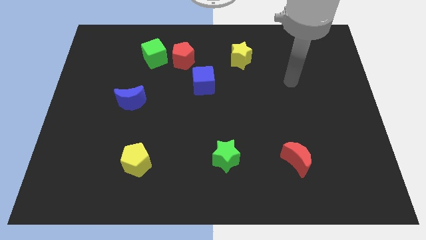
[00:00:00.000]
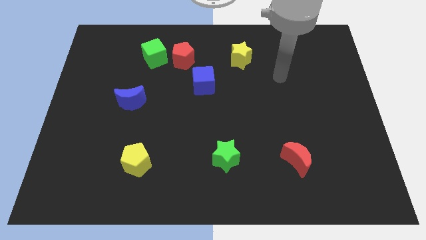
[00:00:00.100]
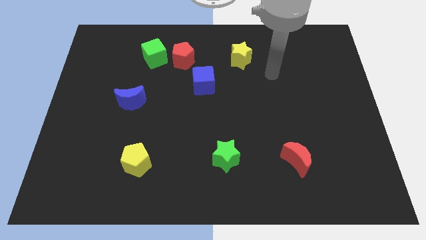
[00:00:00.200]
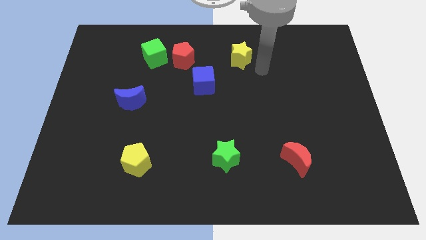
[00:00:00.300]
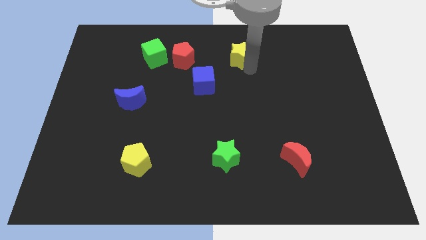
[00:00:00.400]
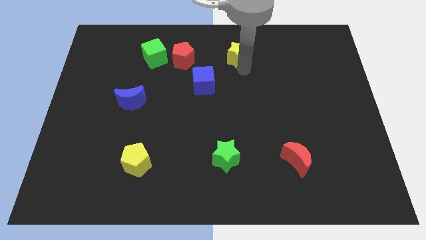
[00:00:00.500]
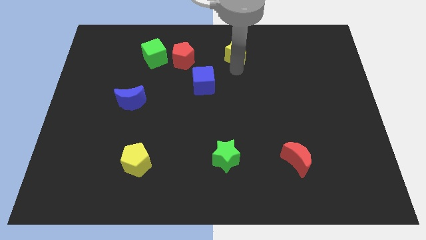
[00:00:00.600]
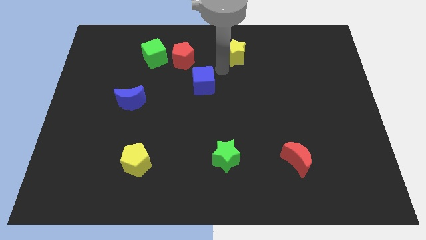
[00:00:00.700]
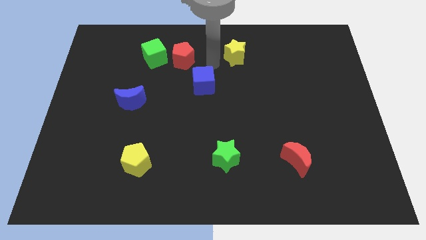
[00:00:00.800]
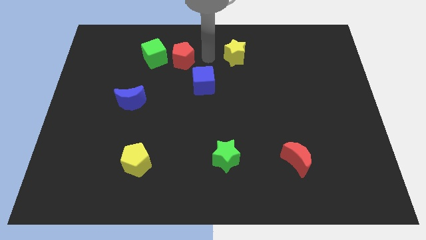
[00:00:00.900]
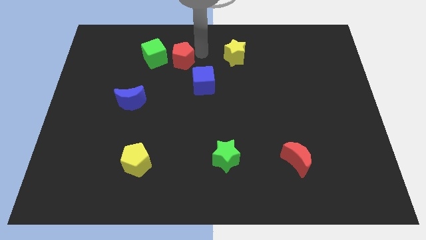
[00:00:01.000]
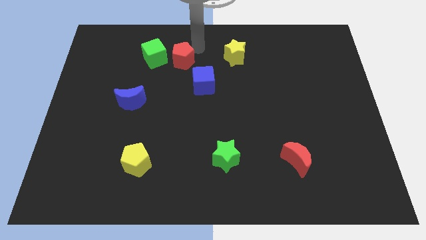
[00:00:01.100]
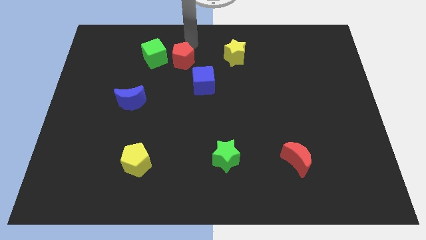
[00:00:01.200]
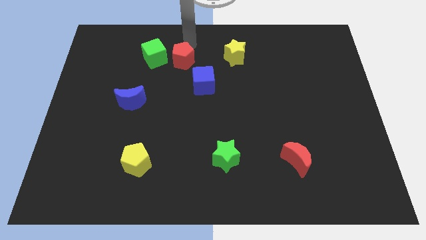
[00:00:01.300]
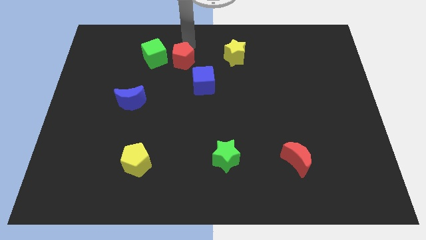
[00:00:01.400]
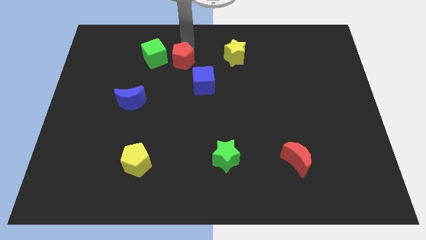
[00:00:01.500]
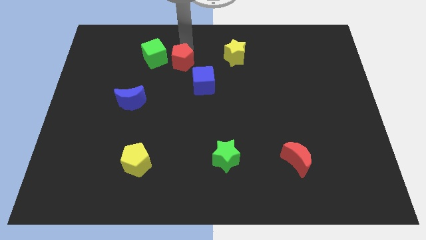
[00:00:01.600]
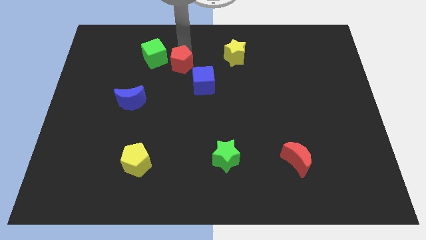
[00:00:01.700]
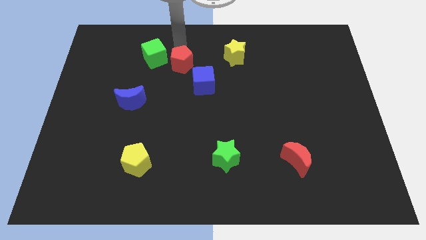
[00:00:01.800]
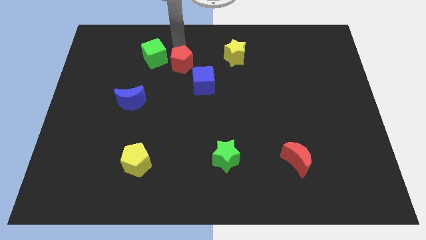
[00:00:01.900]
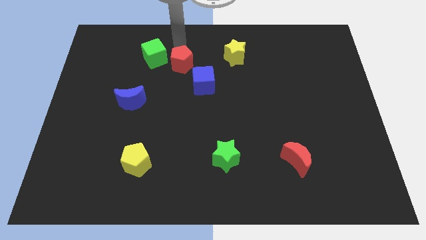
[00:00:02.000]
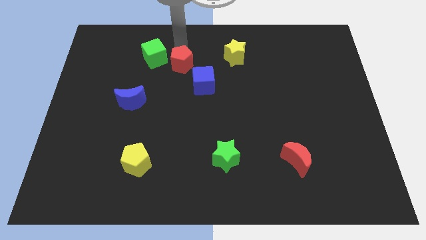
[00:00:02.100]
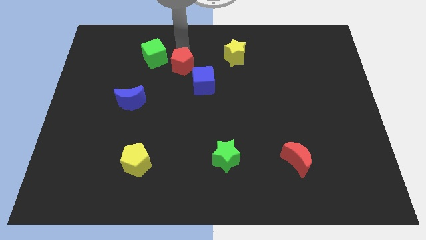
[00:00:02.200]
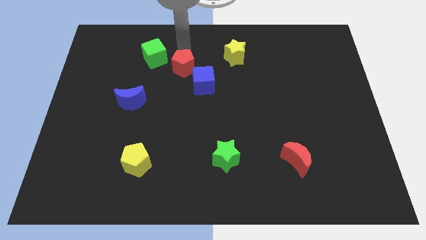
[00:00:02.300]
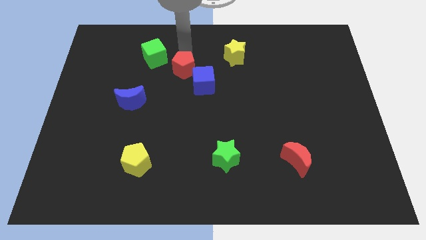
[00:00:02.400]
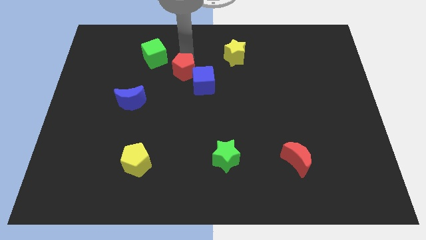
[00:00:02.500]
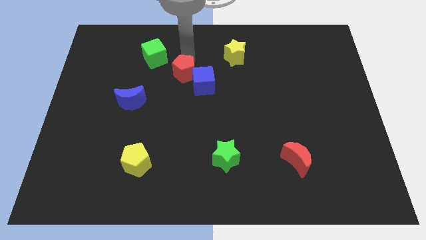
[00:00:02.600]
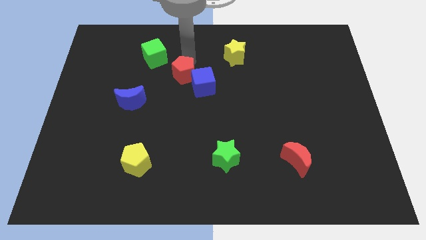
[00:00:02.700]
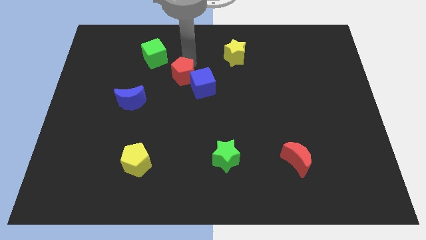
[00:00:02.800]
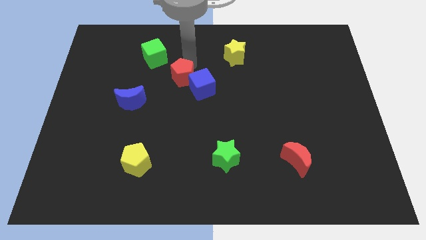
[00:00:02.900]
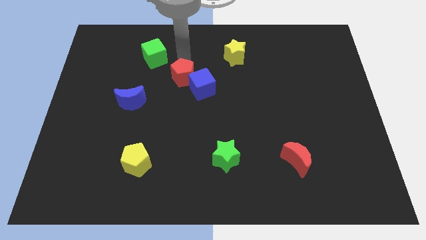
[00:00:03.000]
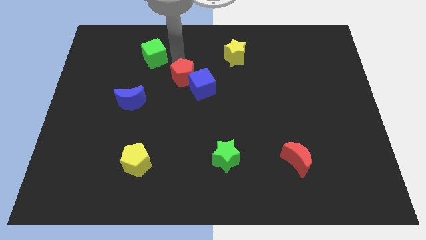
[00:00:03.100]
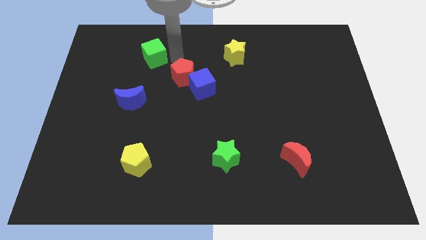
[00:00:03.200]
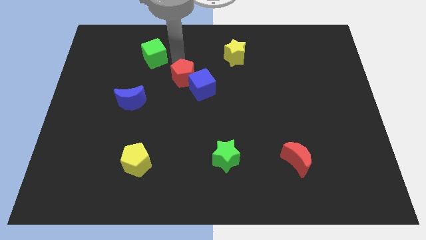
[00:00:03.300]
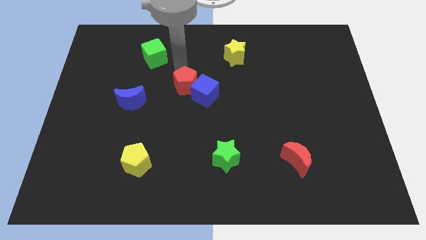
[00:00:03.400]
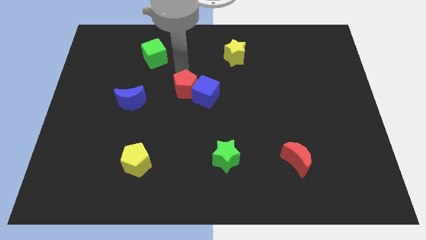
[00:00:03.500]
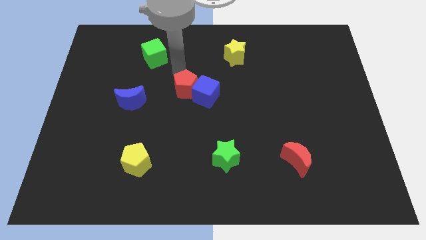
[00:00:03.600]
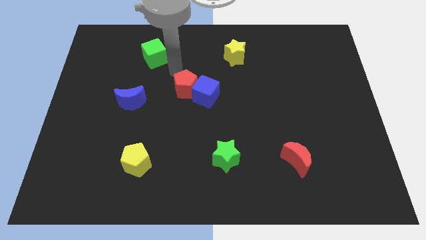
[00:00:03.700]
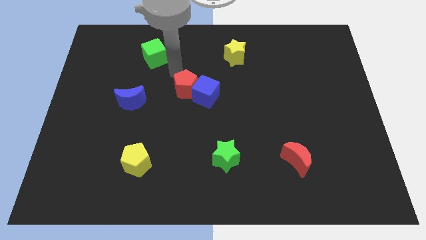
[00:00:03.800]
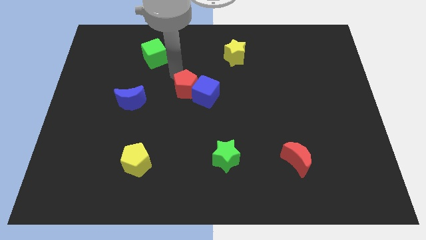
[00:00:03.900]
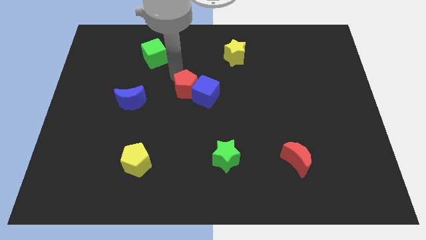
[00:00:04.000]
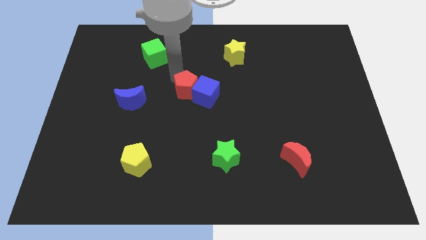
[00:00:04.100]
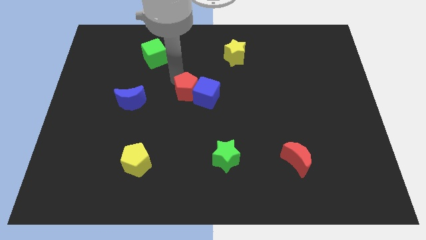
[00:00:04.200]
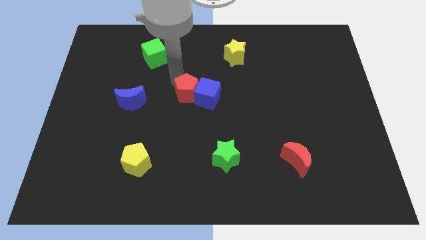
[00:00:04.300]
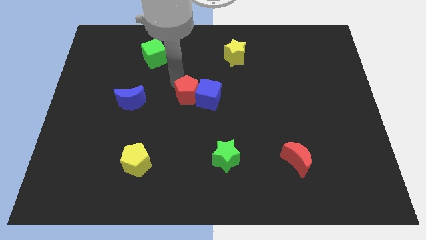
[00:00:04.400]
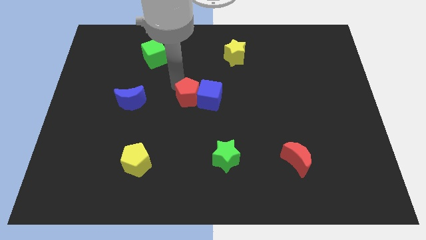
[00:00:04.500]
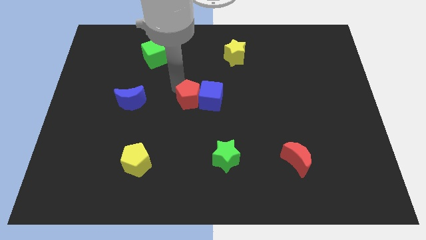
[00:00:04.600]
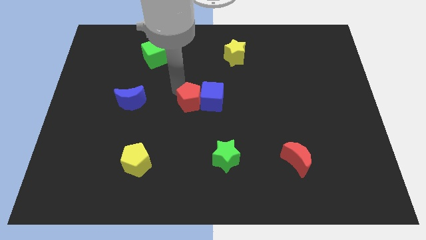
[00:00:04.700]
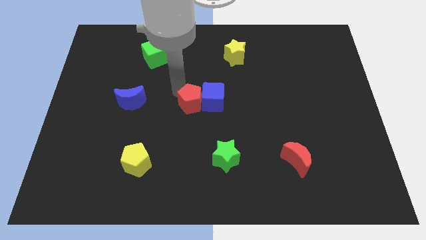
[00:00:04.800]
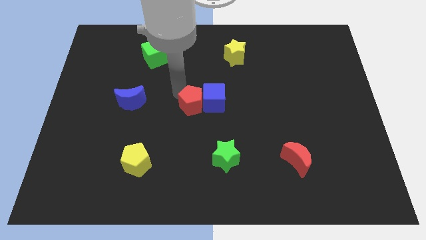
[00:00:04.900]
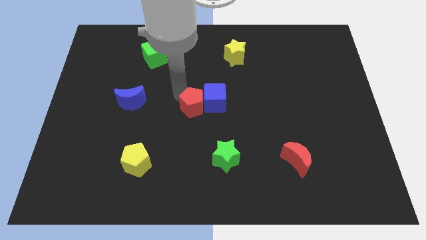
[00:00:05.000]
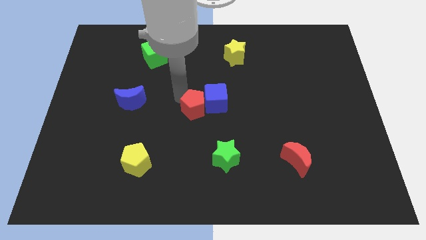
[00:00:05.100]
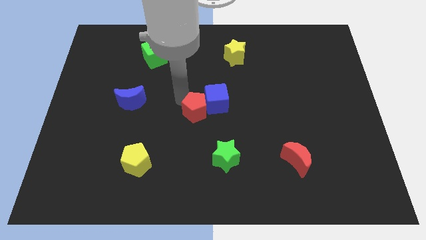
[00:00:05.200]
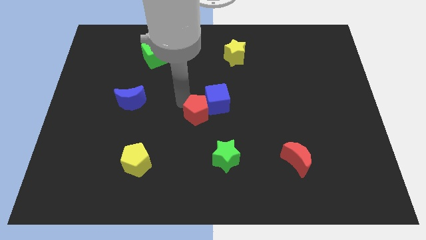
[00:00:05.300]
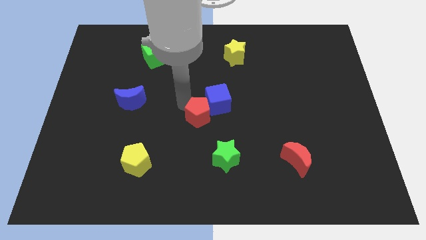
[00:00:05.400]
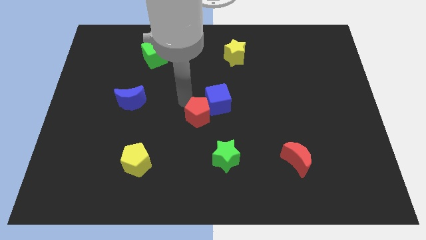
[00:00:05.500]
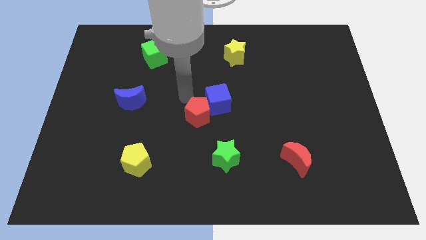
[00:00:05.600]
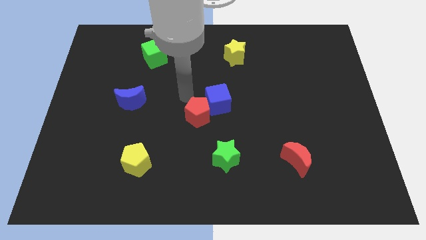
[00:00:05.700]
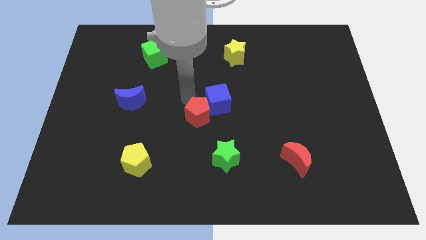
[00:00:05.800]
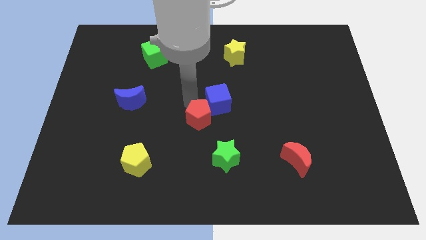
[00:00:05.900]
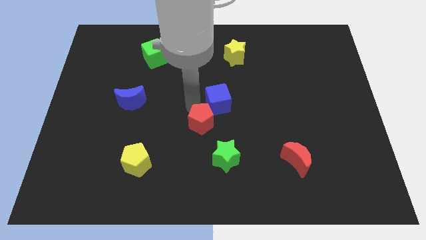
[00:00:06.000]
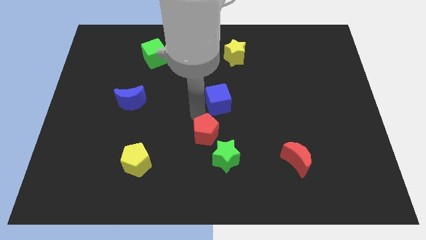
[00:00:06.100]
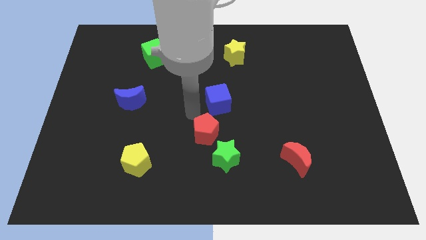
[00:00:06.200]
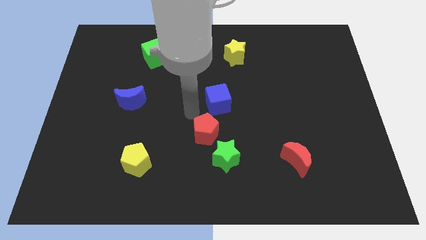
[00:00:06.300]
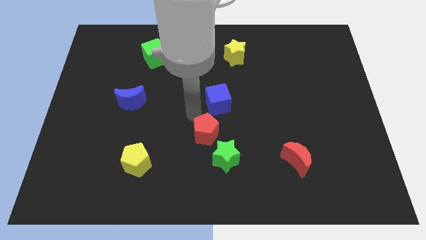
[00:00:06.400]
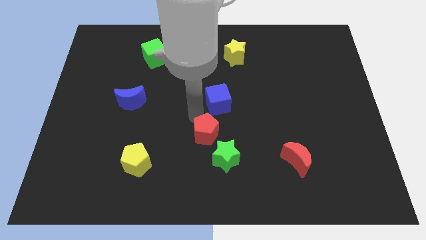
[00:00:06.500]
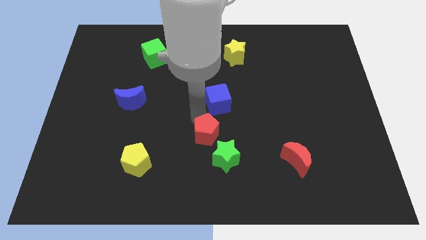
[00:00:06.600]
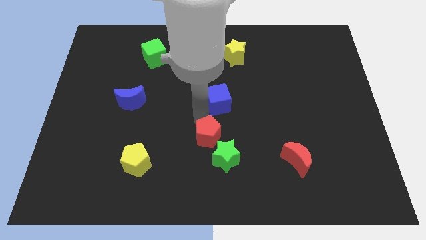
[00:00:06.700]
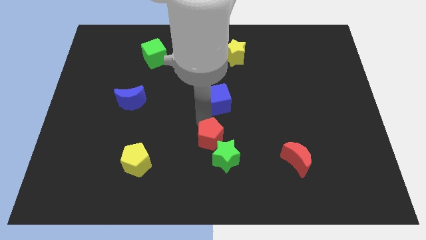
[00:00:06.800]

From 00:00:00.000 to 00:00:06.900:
slide the red pentagon towards the green star

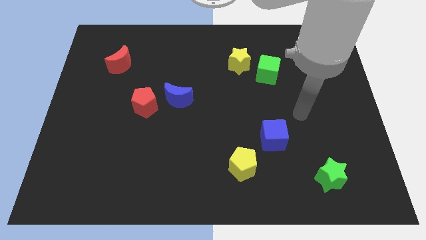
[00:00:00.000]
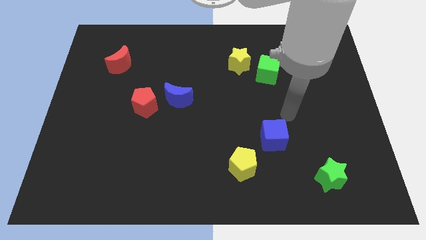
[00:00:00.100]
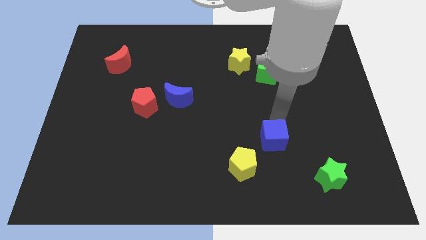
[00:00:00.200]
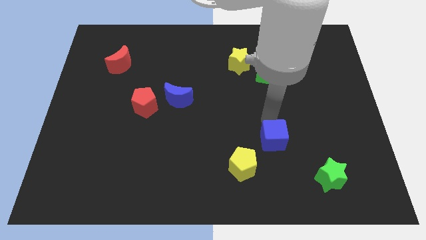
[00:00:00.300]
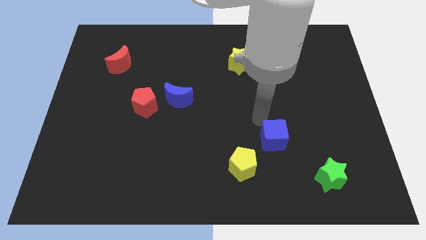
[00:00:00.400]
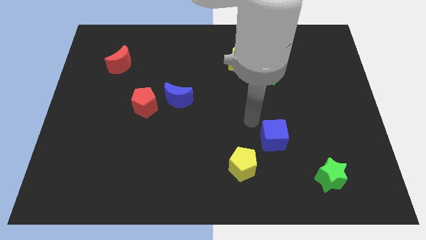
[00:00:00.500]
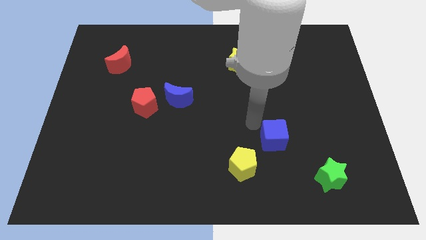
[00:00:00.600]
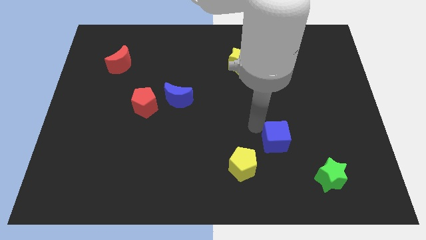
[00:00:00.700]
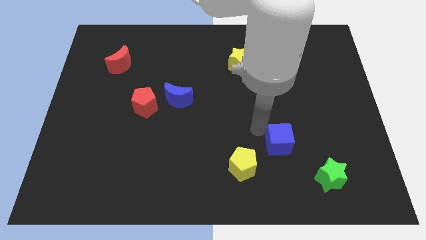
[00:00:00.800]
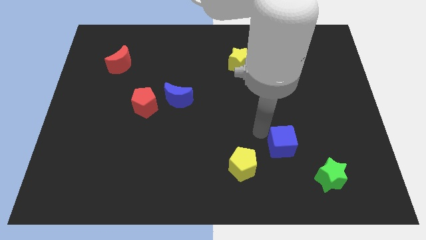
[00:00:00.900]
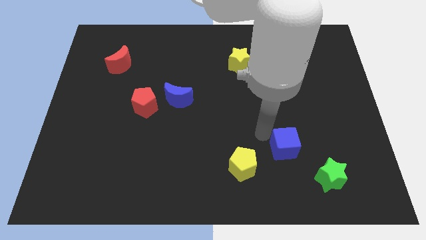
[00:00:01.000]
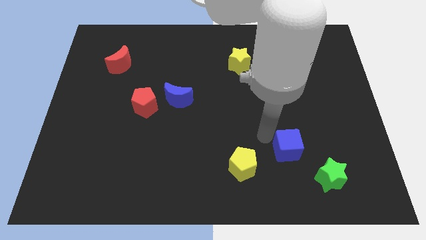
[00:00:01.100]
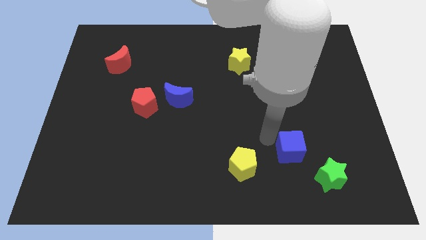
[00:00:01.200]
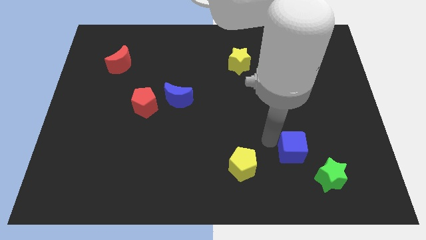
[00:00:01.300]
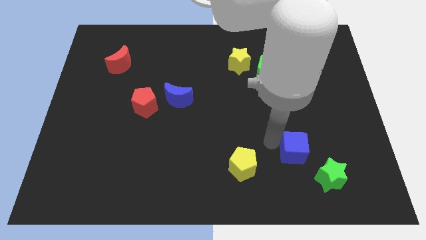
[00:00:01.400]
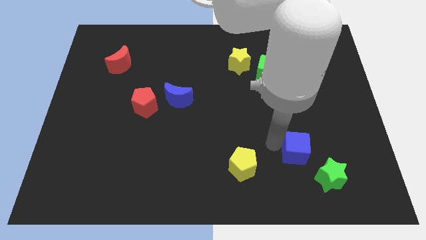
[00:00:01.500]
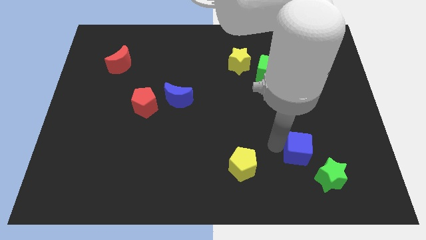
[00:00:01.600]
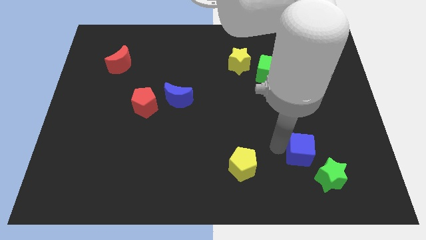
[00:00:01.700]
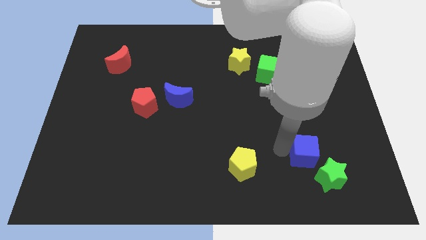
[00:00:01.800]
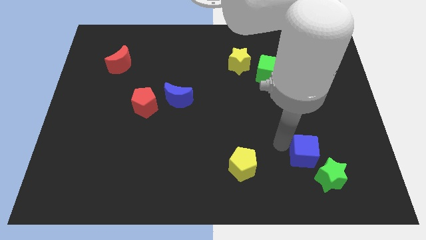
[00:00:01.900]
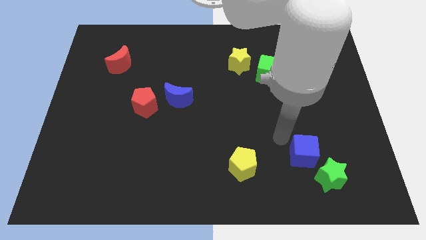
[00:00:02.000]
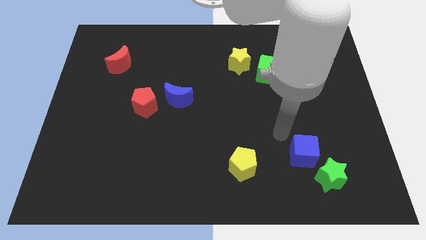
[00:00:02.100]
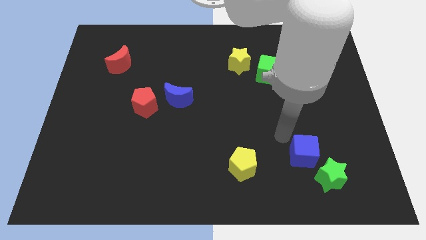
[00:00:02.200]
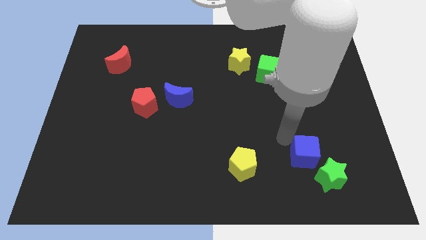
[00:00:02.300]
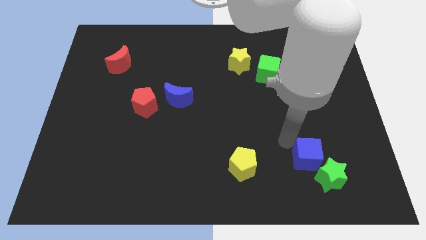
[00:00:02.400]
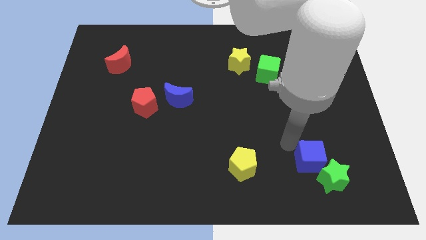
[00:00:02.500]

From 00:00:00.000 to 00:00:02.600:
move the blue cube towards the green star
